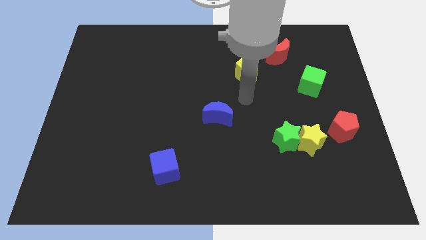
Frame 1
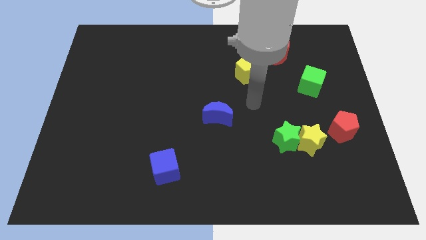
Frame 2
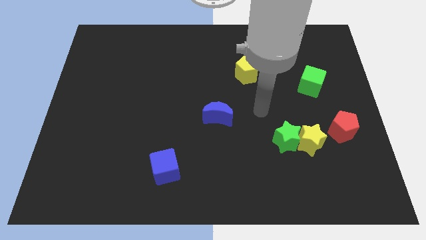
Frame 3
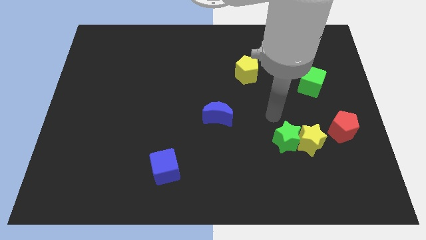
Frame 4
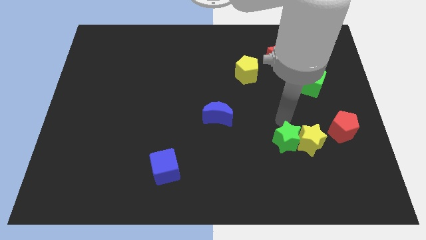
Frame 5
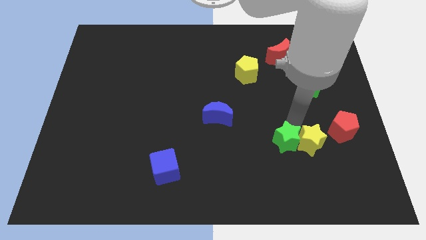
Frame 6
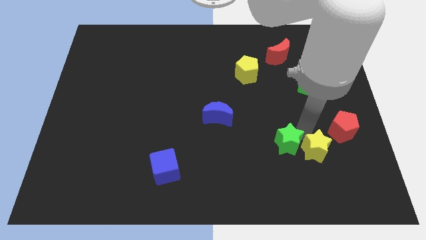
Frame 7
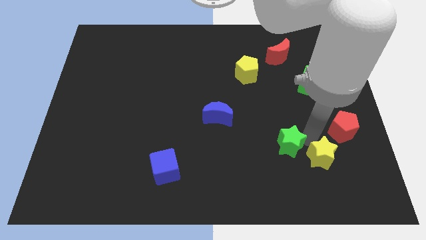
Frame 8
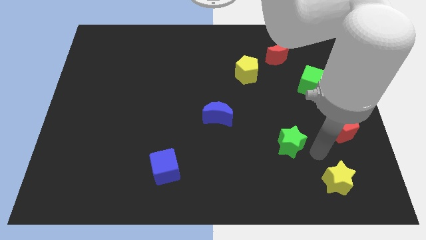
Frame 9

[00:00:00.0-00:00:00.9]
move the green star away from the yellow star

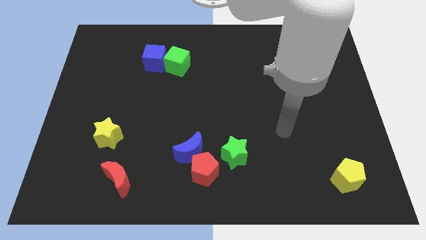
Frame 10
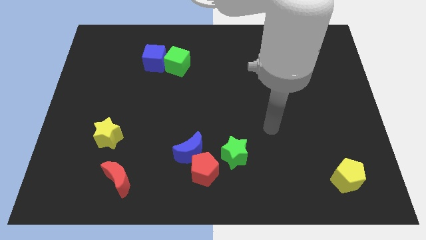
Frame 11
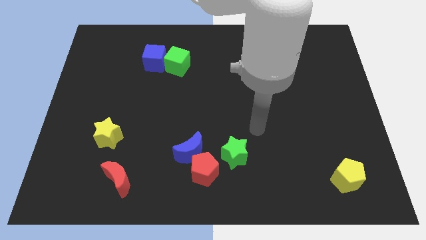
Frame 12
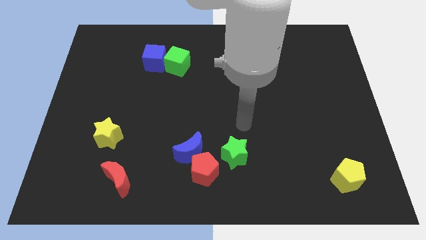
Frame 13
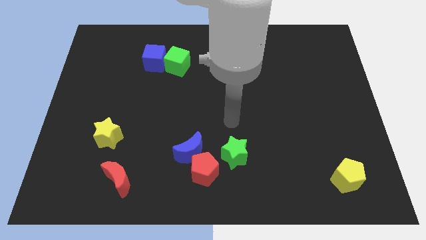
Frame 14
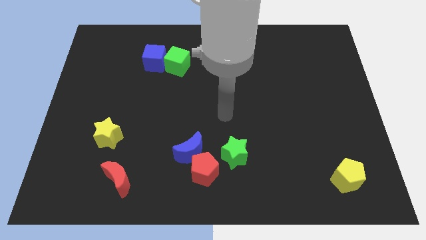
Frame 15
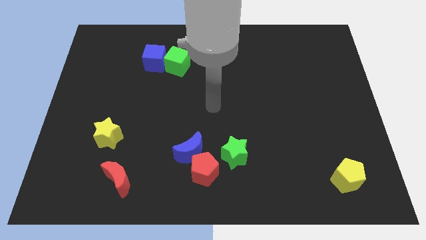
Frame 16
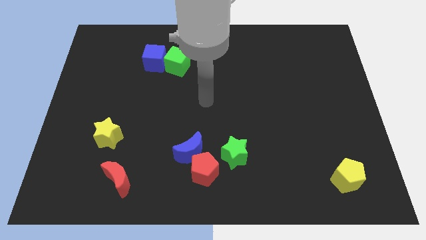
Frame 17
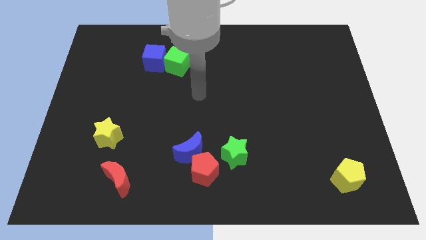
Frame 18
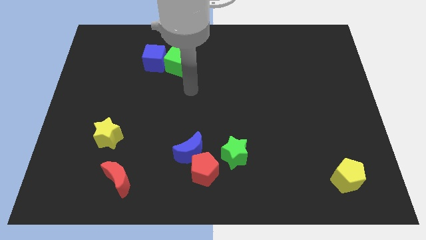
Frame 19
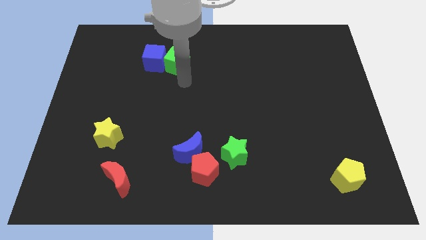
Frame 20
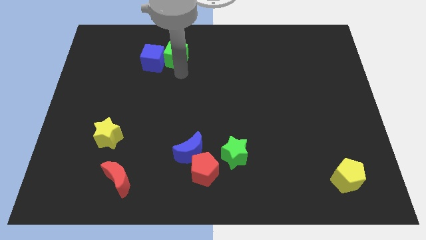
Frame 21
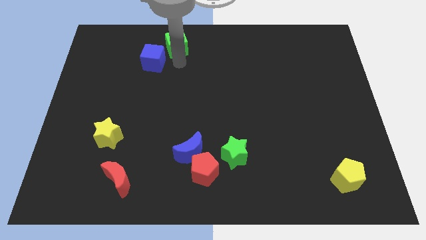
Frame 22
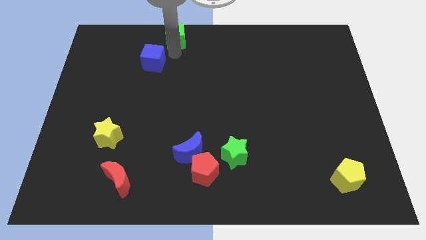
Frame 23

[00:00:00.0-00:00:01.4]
separate the blue cube from the green cube

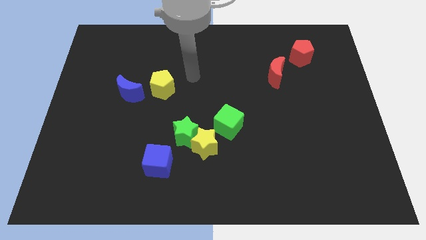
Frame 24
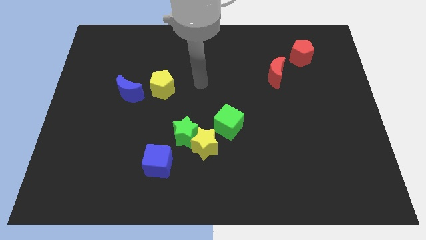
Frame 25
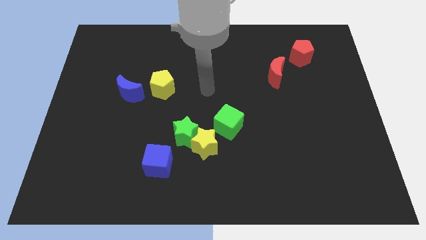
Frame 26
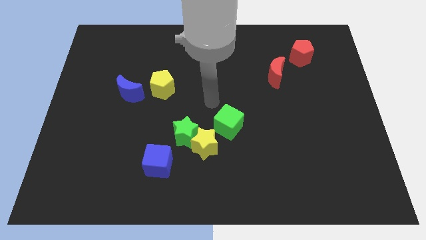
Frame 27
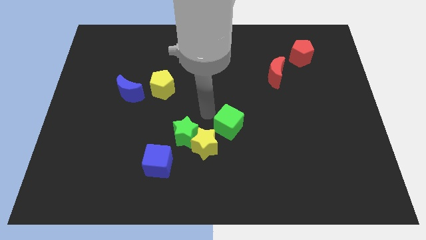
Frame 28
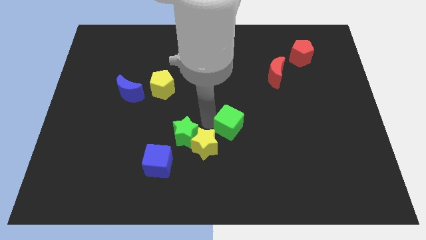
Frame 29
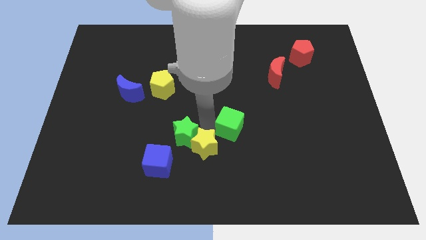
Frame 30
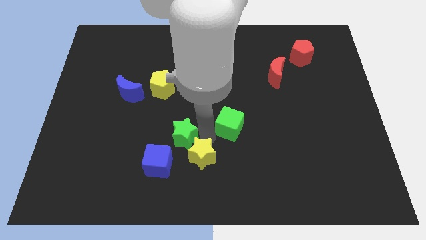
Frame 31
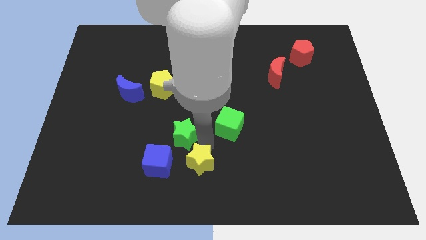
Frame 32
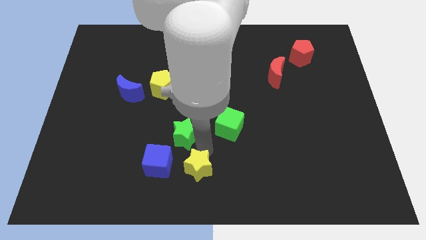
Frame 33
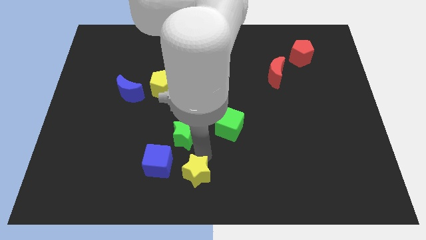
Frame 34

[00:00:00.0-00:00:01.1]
move the yellow star away from the green star and green cube

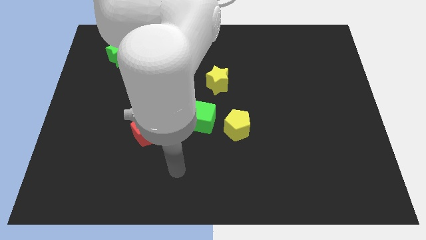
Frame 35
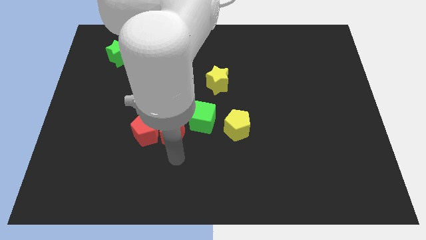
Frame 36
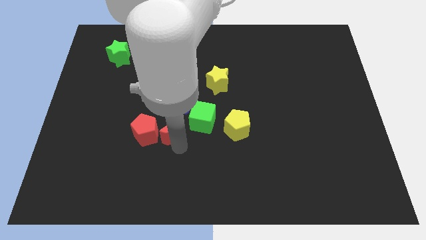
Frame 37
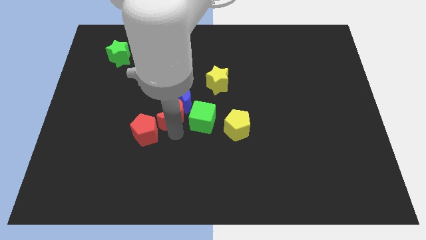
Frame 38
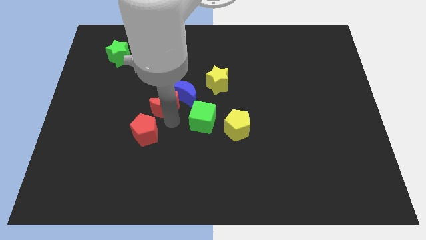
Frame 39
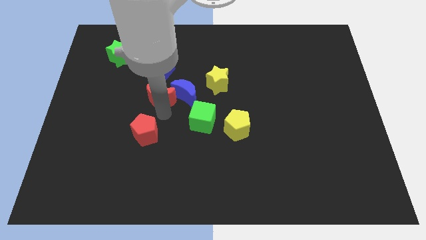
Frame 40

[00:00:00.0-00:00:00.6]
pull the red pentagon apart from the red moon

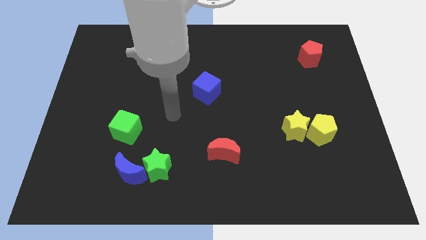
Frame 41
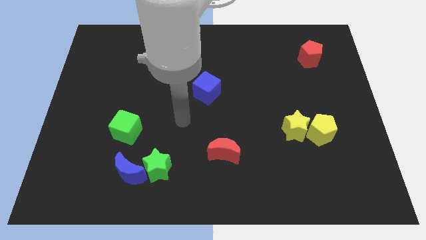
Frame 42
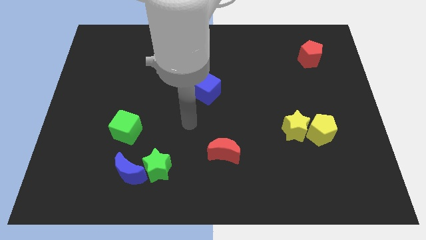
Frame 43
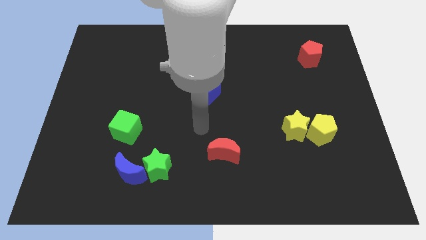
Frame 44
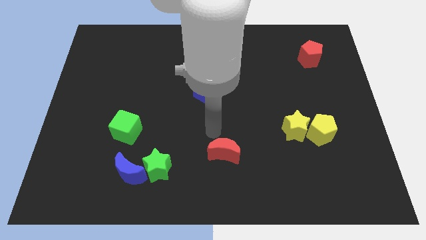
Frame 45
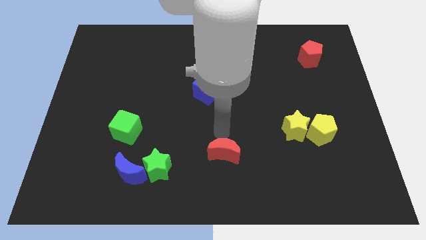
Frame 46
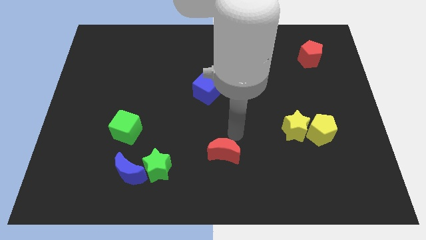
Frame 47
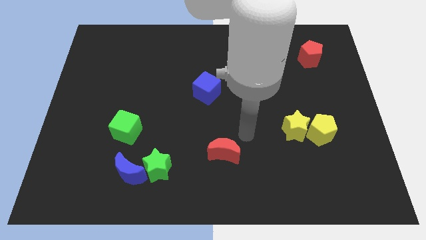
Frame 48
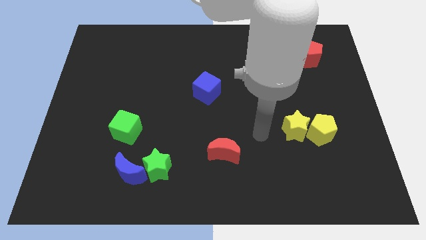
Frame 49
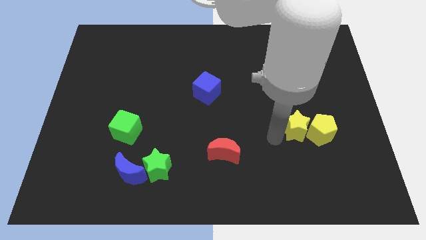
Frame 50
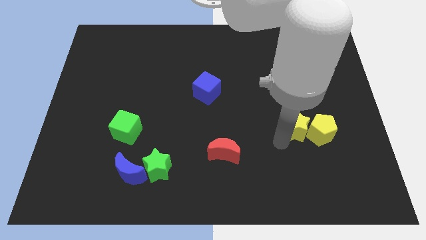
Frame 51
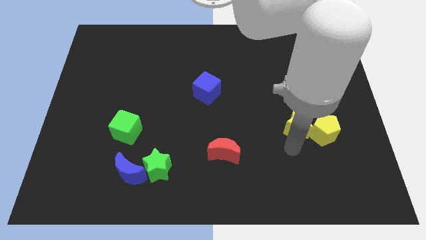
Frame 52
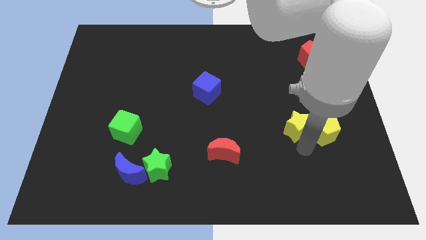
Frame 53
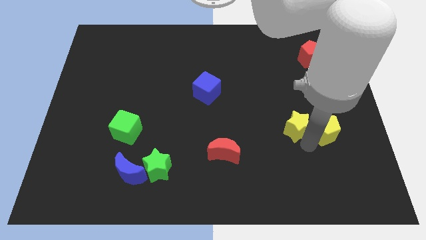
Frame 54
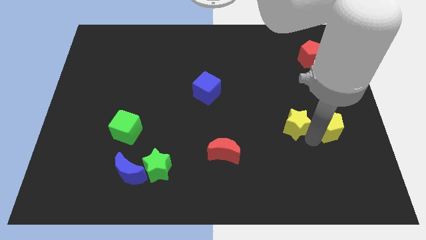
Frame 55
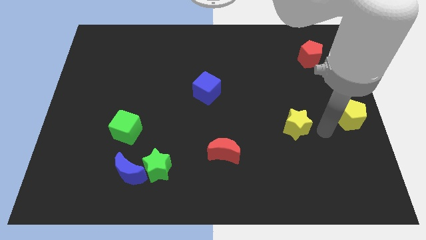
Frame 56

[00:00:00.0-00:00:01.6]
move the yellow star away from the yellow pentagon

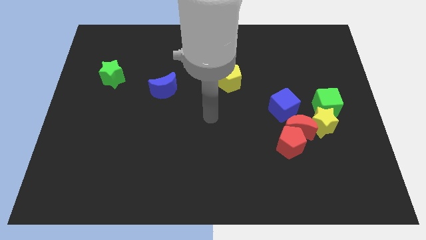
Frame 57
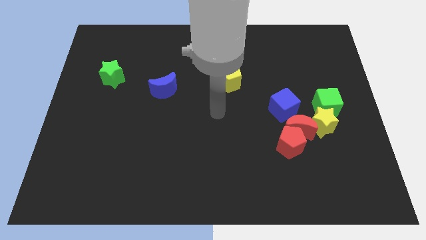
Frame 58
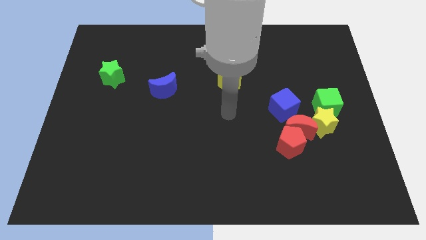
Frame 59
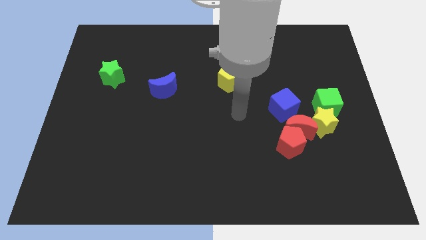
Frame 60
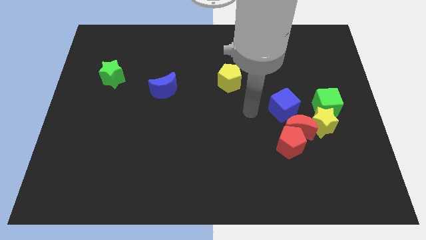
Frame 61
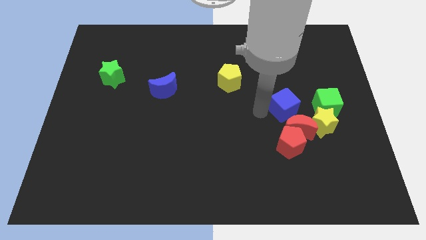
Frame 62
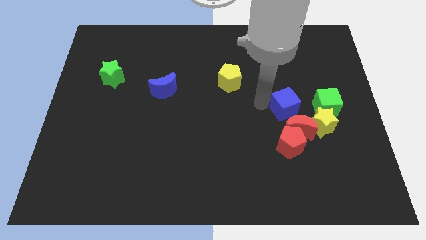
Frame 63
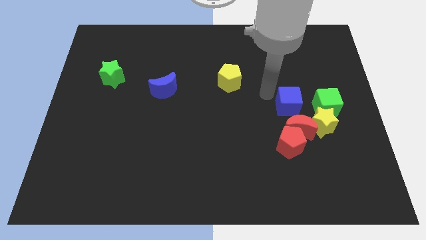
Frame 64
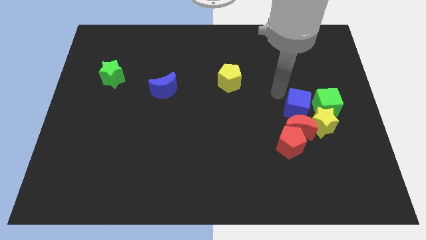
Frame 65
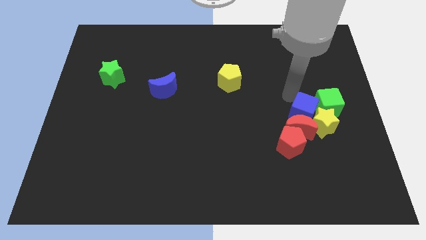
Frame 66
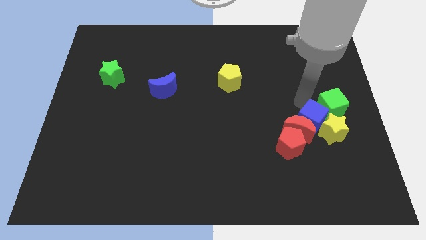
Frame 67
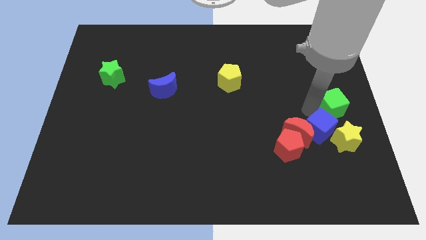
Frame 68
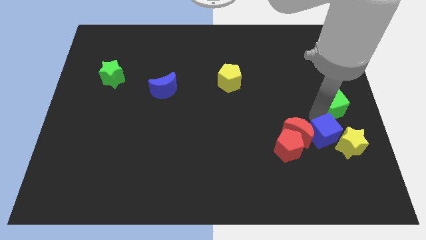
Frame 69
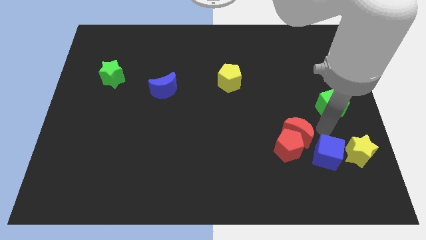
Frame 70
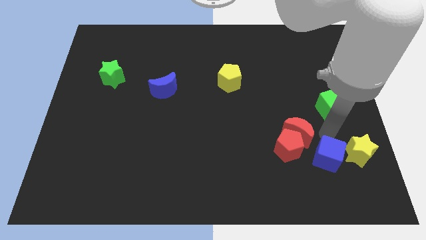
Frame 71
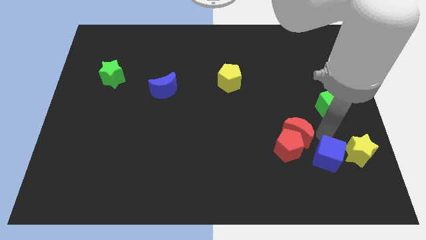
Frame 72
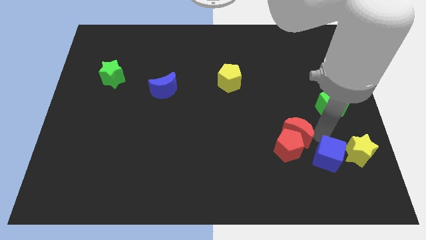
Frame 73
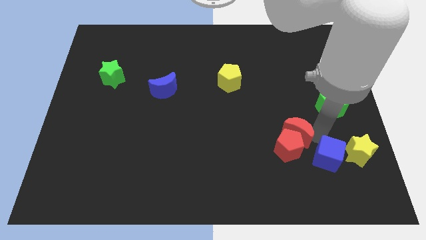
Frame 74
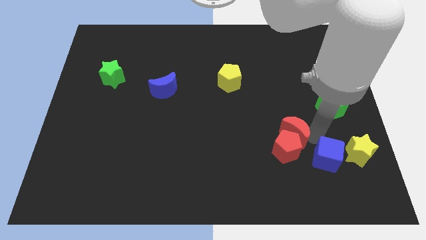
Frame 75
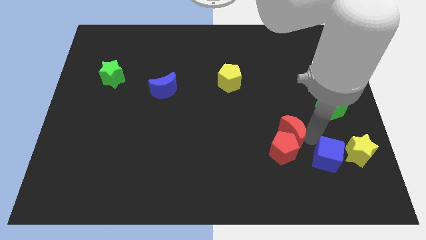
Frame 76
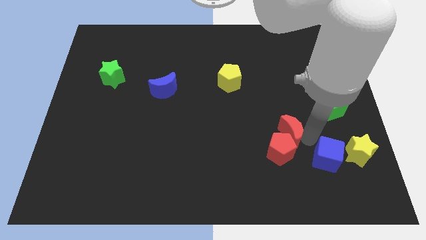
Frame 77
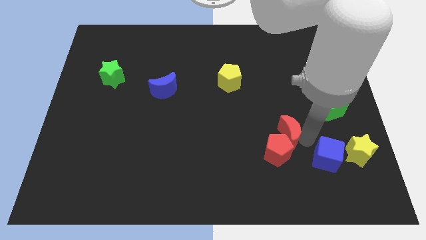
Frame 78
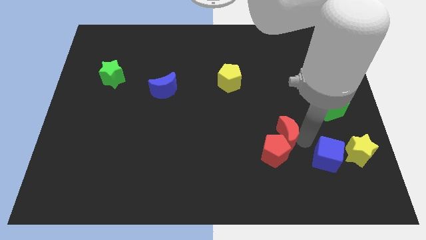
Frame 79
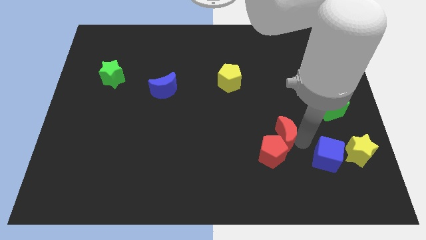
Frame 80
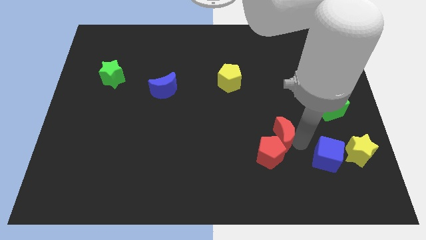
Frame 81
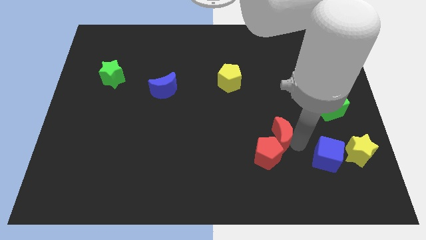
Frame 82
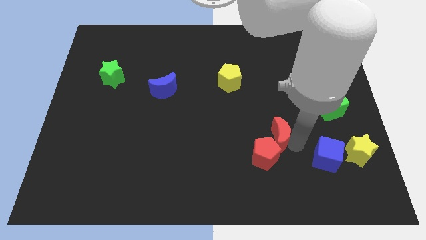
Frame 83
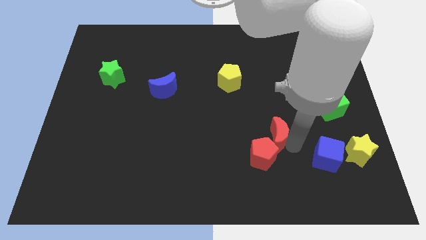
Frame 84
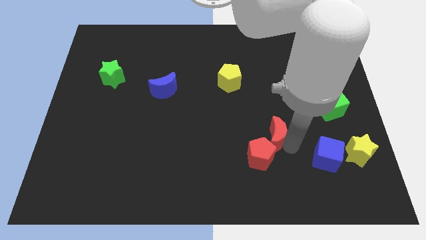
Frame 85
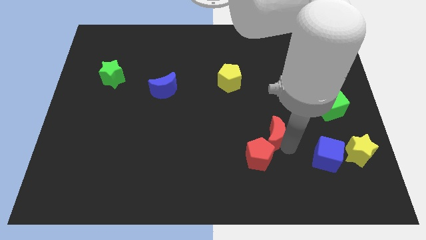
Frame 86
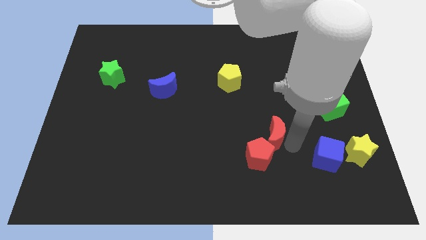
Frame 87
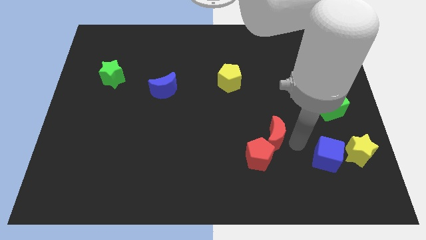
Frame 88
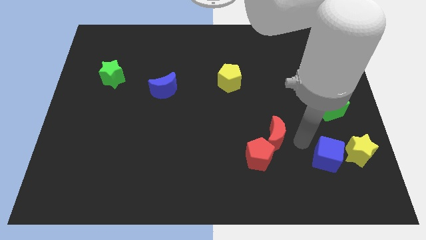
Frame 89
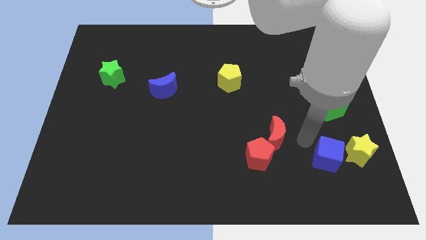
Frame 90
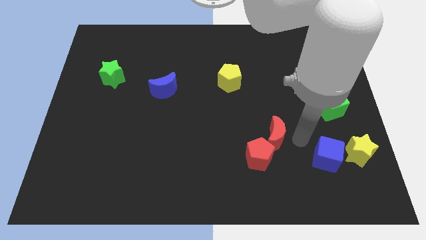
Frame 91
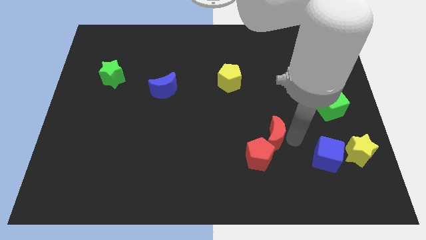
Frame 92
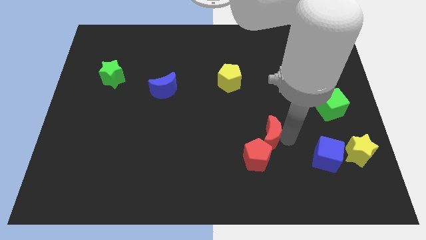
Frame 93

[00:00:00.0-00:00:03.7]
pull the red moon apart from the group of blocks
